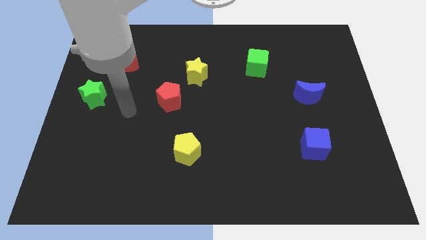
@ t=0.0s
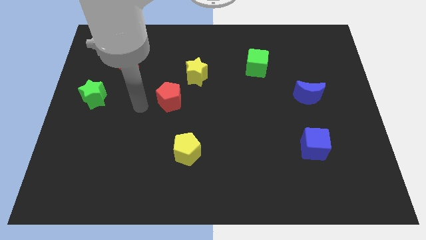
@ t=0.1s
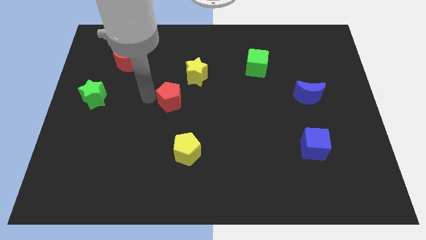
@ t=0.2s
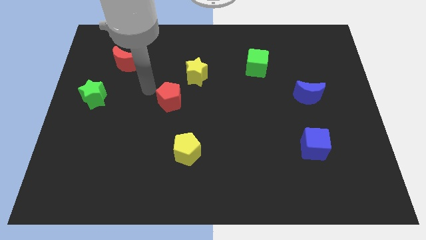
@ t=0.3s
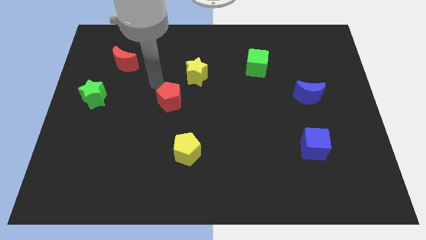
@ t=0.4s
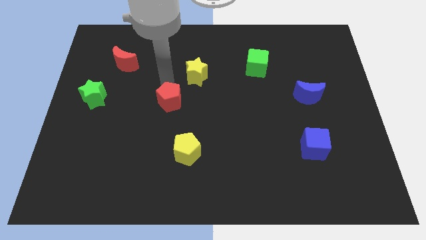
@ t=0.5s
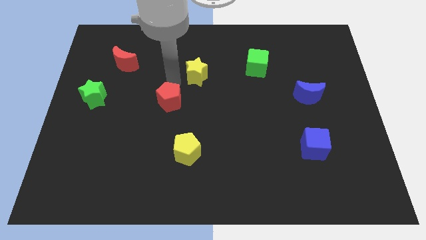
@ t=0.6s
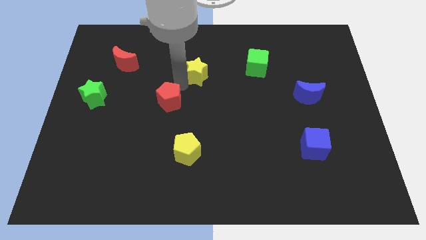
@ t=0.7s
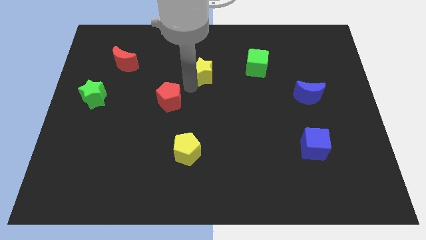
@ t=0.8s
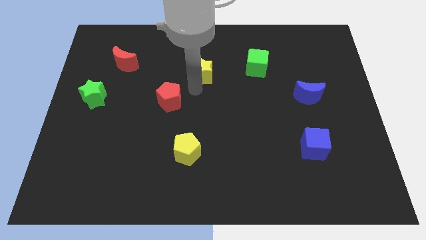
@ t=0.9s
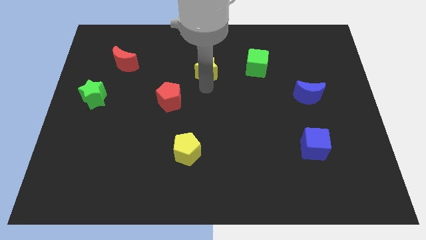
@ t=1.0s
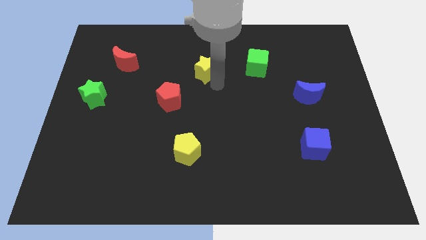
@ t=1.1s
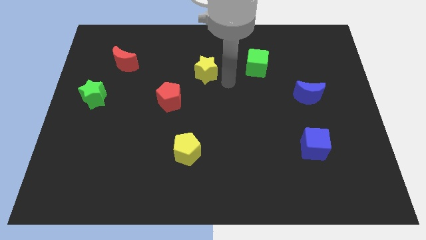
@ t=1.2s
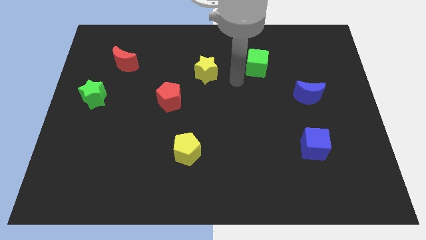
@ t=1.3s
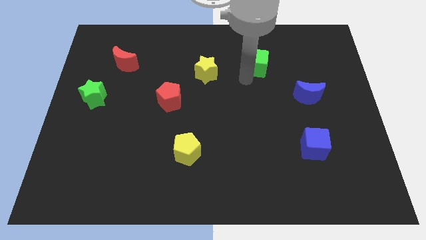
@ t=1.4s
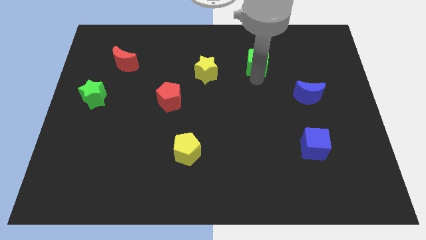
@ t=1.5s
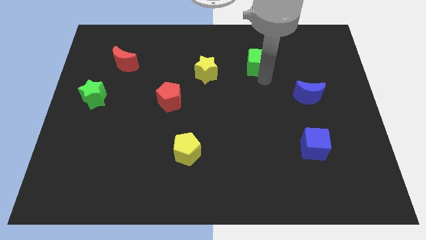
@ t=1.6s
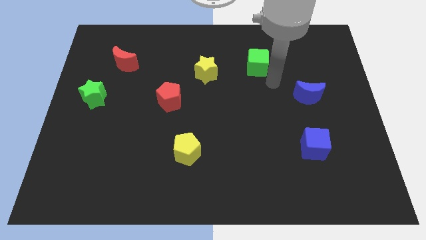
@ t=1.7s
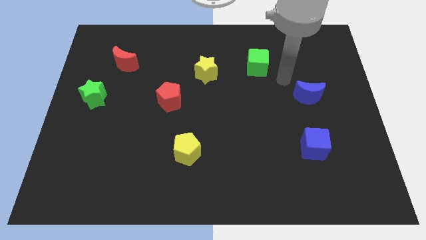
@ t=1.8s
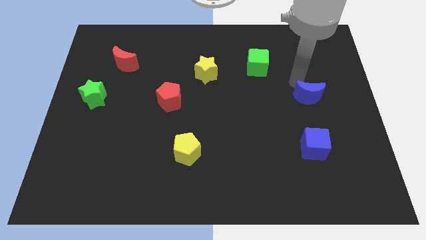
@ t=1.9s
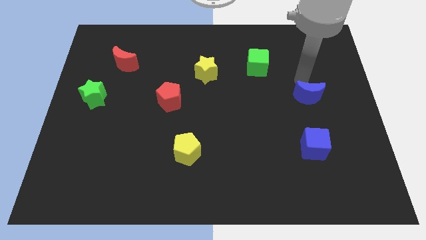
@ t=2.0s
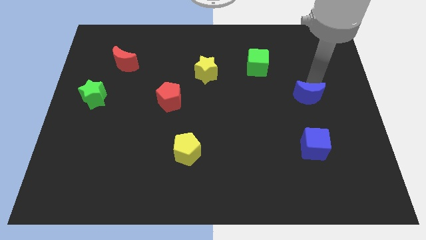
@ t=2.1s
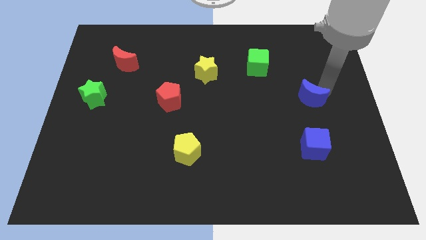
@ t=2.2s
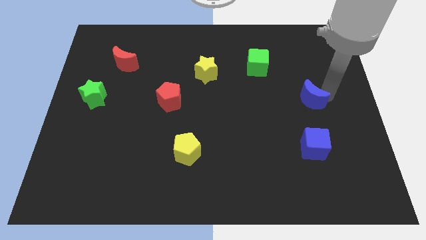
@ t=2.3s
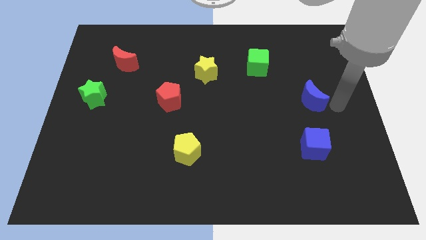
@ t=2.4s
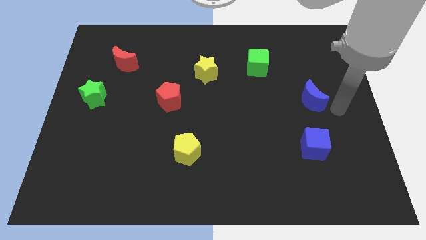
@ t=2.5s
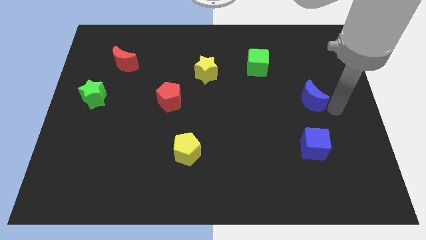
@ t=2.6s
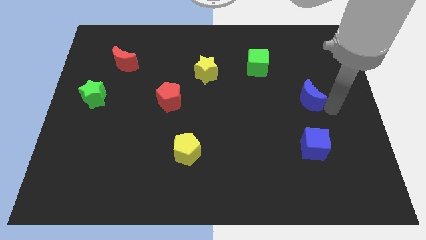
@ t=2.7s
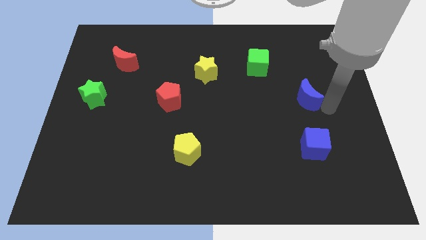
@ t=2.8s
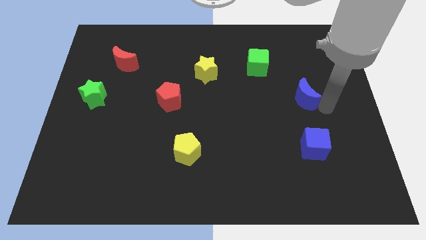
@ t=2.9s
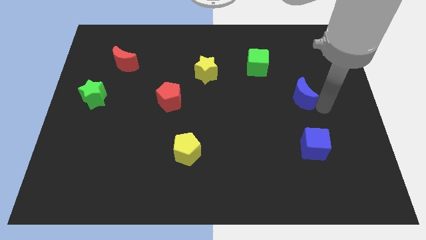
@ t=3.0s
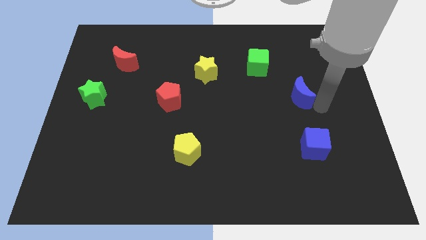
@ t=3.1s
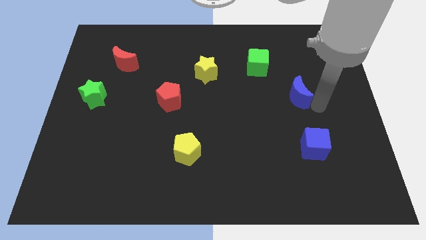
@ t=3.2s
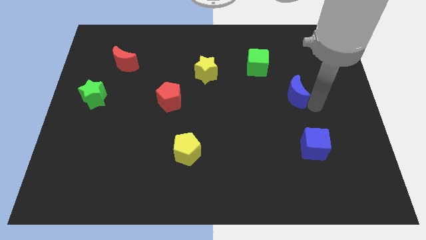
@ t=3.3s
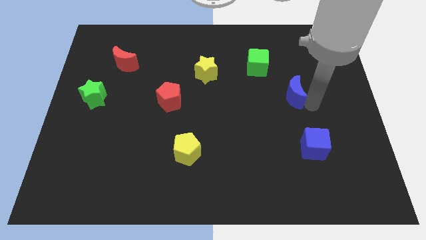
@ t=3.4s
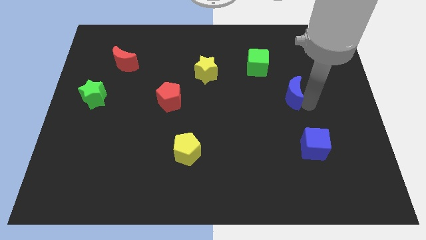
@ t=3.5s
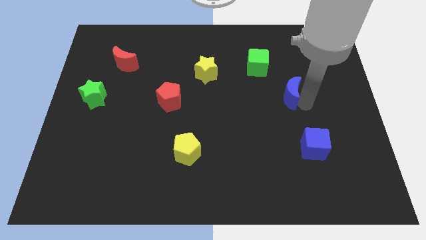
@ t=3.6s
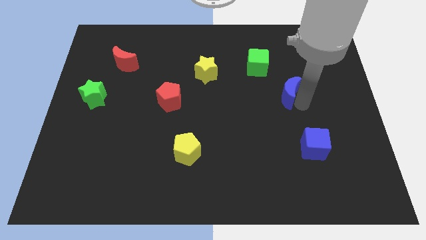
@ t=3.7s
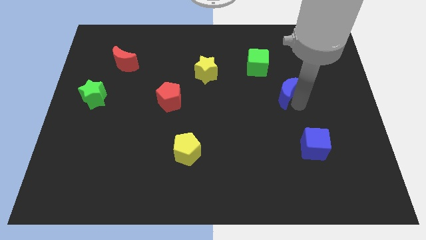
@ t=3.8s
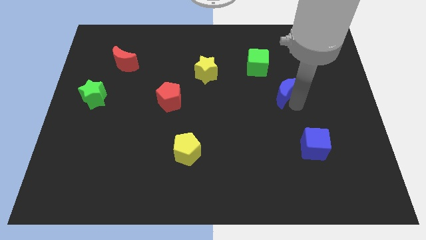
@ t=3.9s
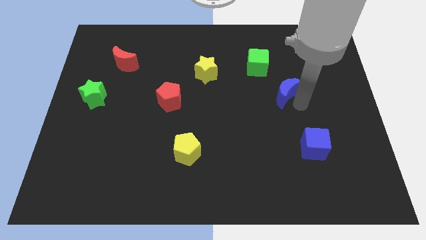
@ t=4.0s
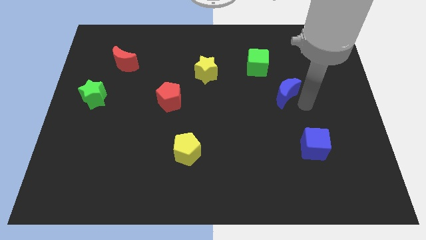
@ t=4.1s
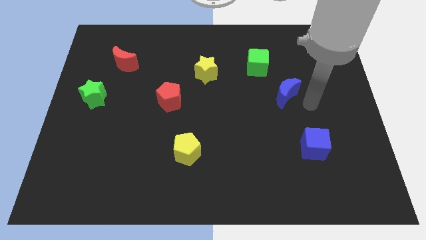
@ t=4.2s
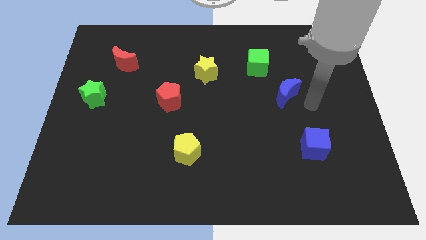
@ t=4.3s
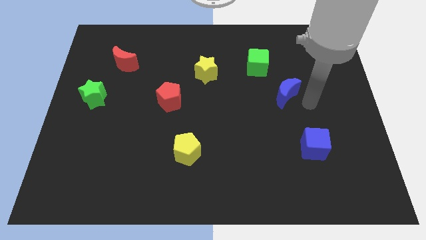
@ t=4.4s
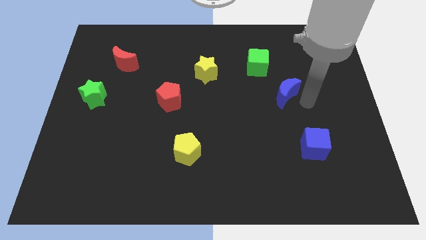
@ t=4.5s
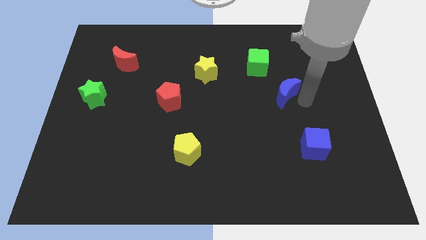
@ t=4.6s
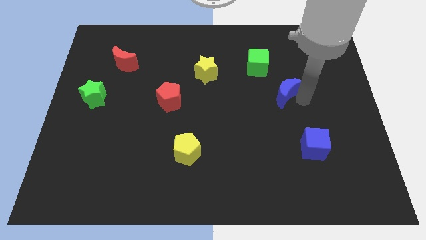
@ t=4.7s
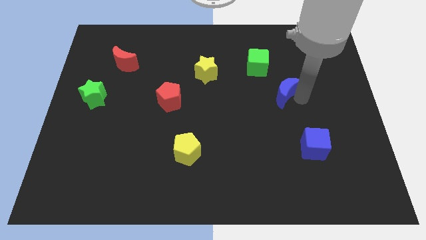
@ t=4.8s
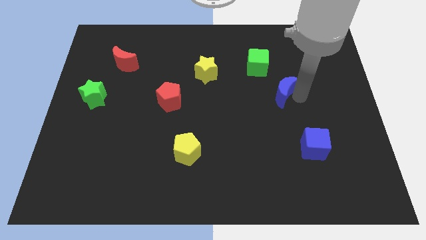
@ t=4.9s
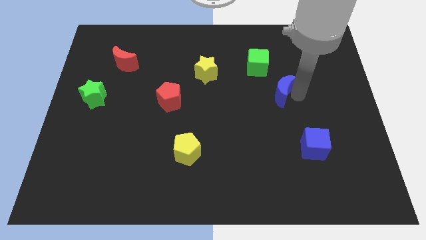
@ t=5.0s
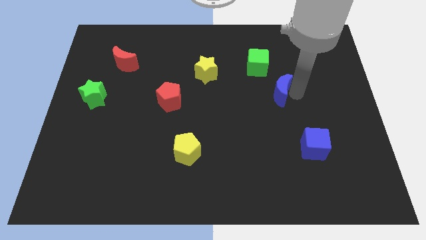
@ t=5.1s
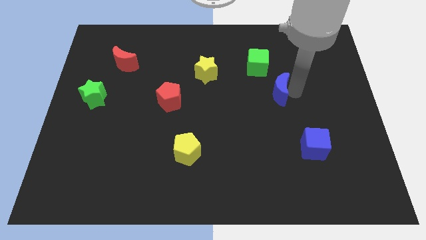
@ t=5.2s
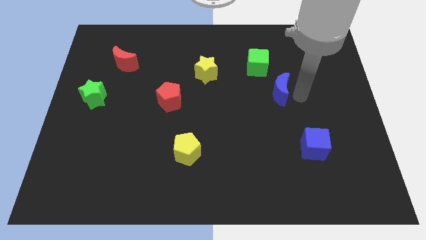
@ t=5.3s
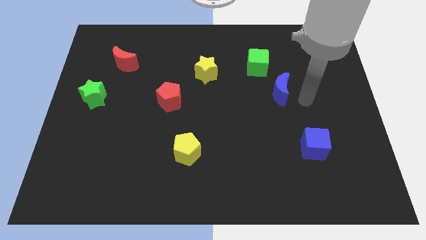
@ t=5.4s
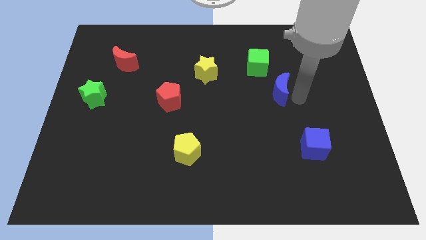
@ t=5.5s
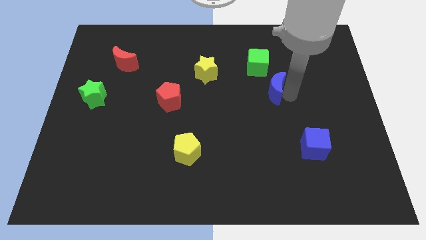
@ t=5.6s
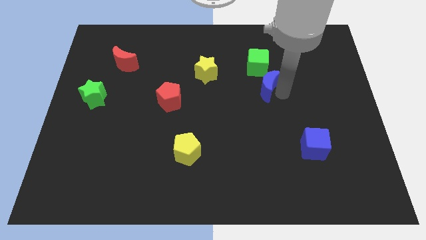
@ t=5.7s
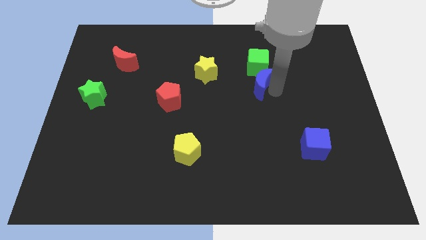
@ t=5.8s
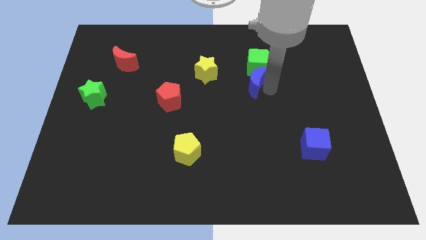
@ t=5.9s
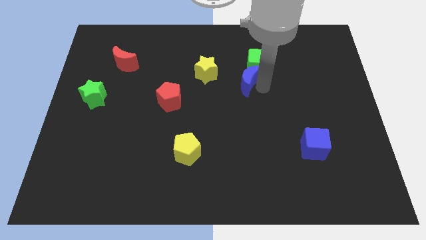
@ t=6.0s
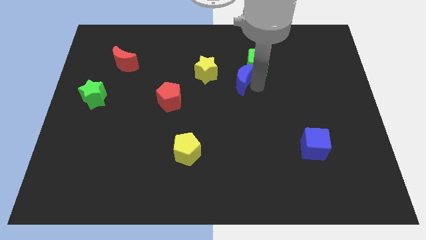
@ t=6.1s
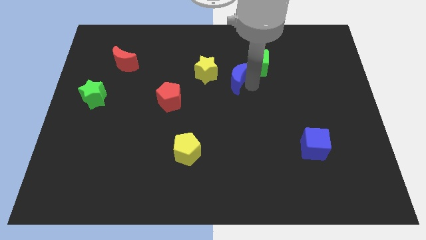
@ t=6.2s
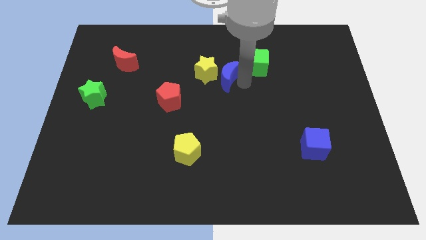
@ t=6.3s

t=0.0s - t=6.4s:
slide the blue moon close to the yellow star
